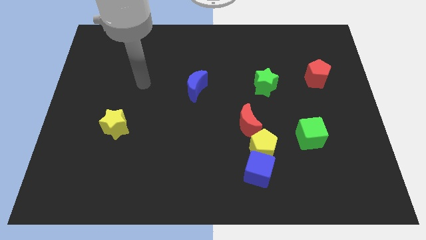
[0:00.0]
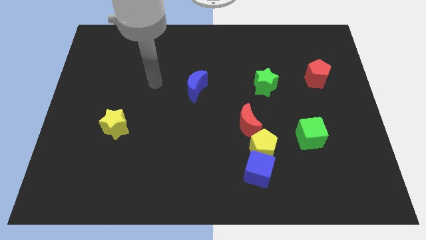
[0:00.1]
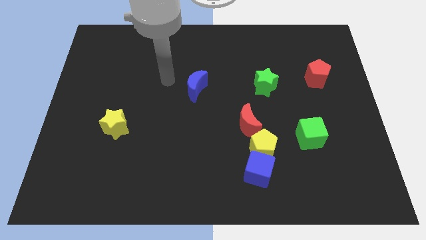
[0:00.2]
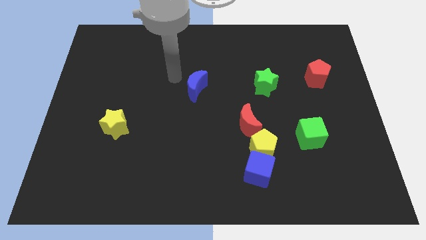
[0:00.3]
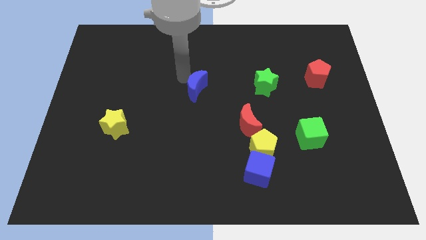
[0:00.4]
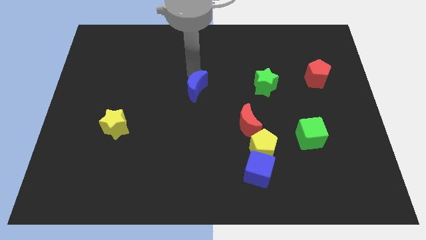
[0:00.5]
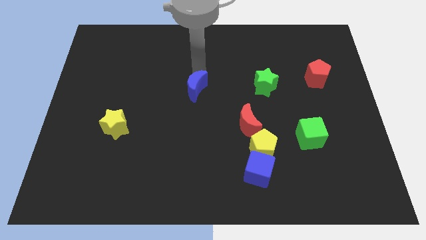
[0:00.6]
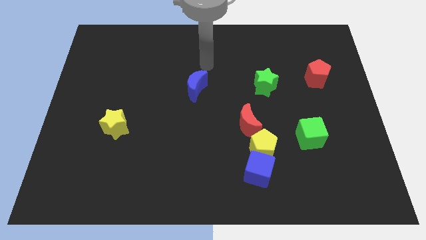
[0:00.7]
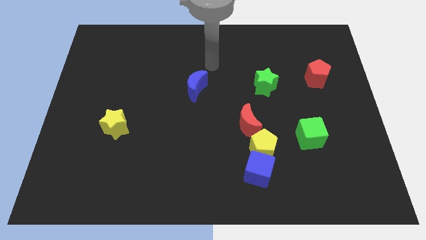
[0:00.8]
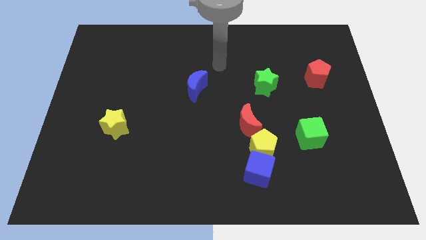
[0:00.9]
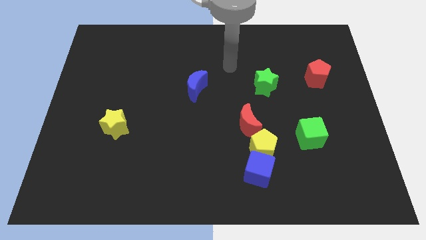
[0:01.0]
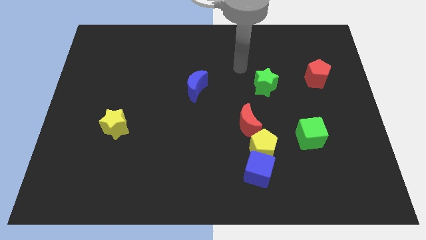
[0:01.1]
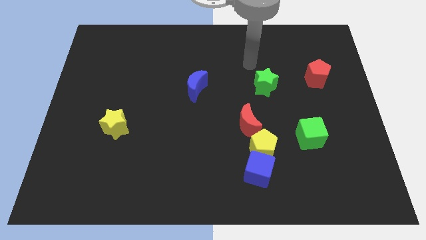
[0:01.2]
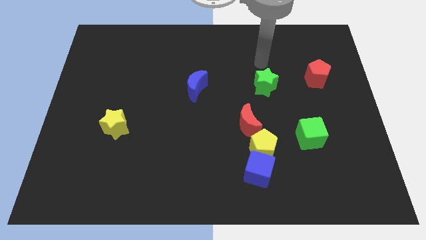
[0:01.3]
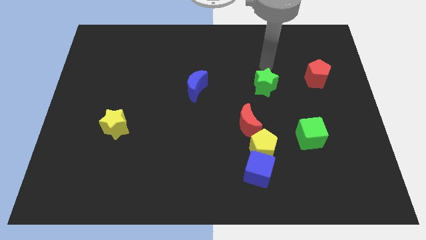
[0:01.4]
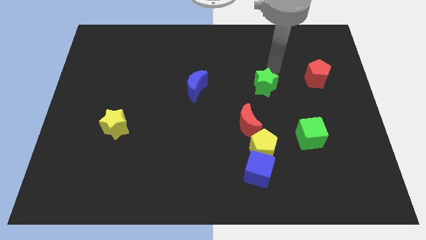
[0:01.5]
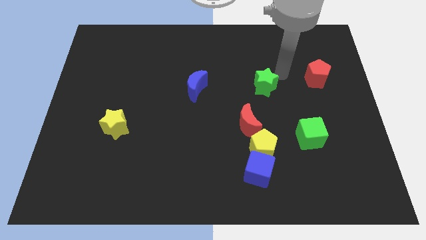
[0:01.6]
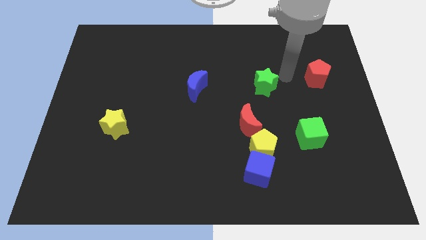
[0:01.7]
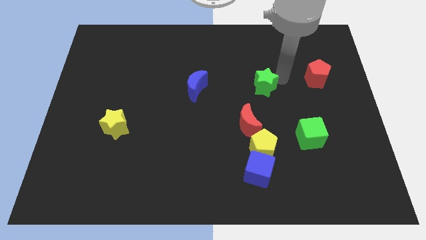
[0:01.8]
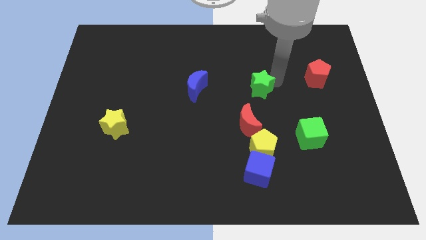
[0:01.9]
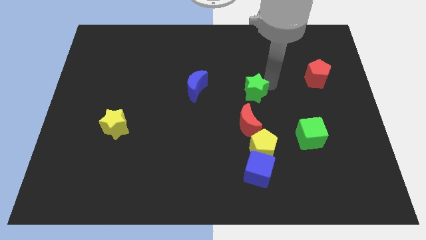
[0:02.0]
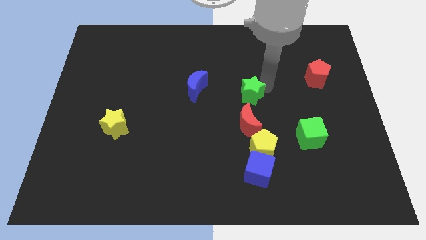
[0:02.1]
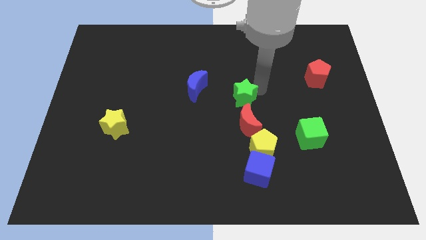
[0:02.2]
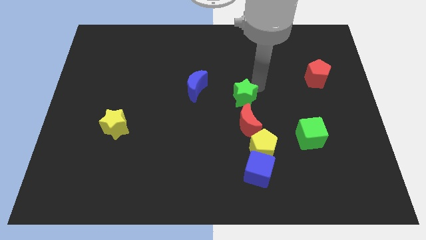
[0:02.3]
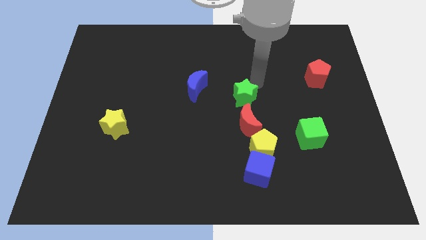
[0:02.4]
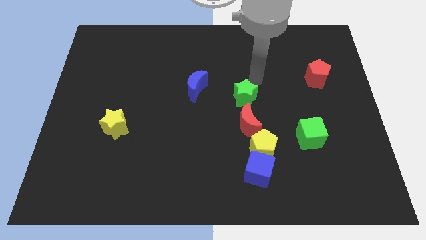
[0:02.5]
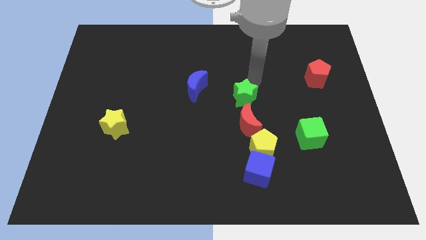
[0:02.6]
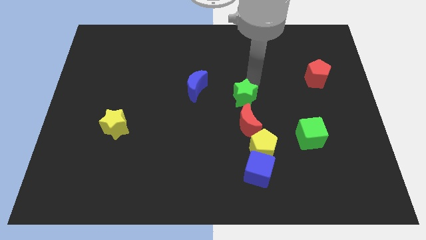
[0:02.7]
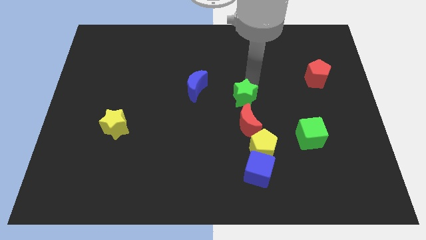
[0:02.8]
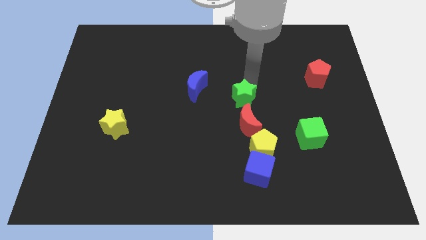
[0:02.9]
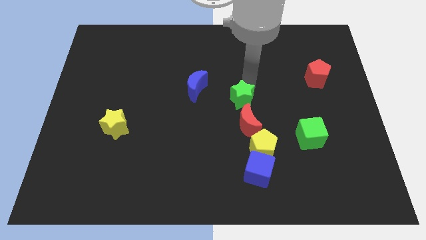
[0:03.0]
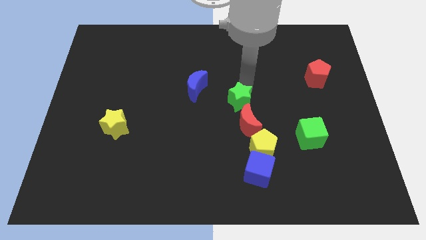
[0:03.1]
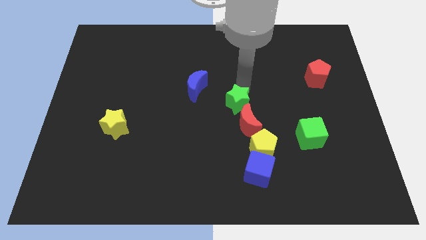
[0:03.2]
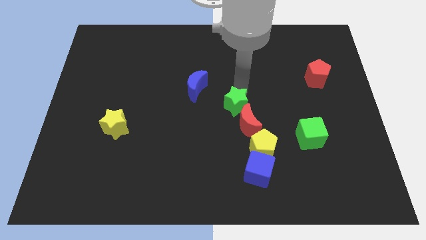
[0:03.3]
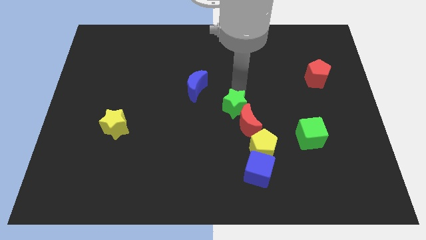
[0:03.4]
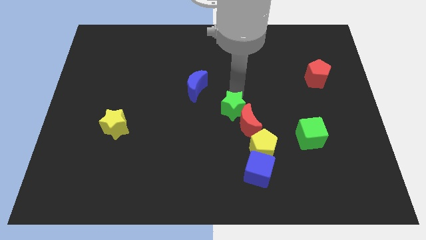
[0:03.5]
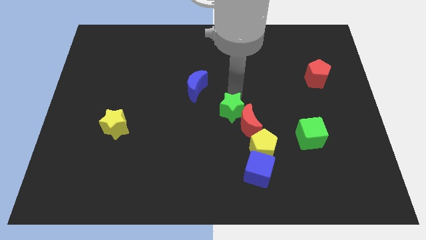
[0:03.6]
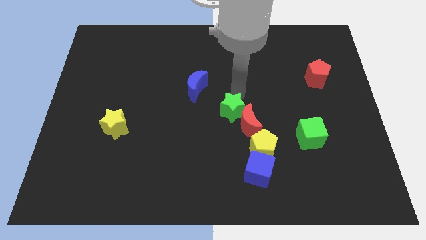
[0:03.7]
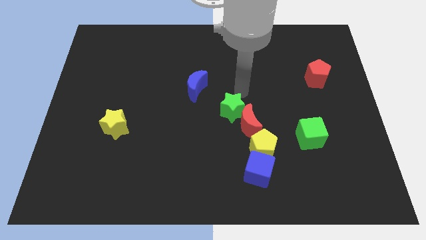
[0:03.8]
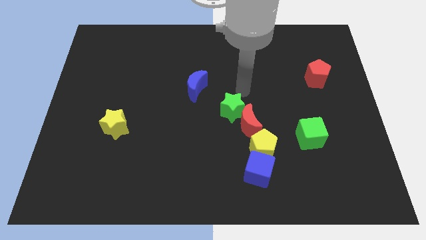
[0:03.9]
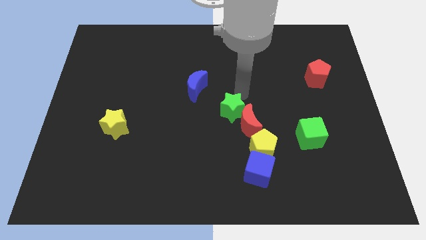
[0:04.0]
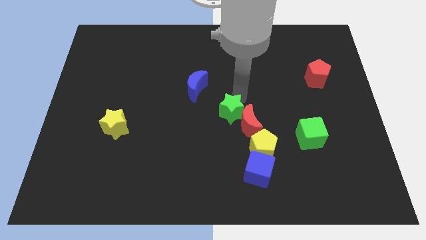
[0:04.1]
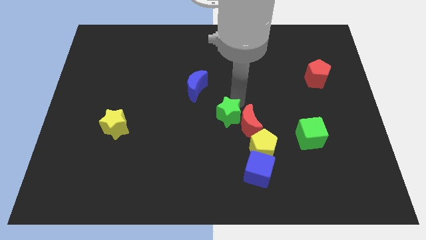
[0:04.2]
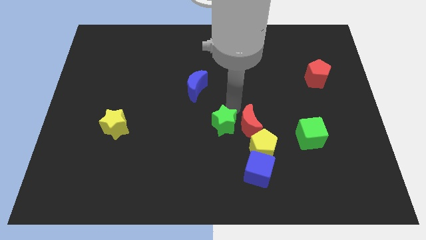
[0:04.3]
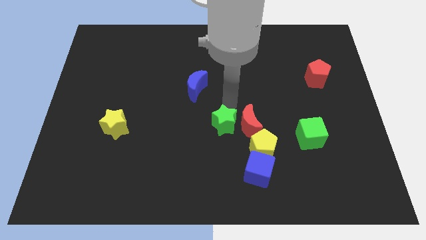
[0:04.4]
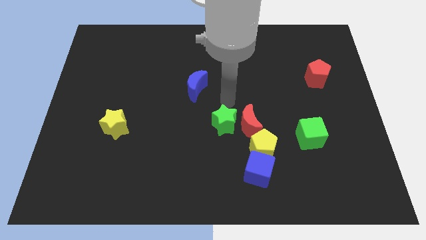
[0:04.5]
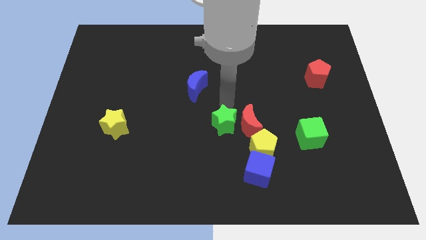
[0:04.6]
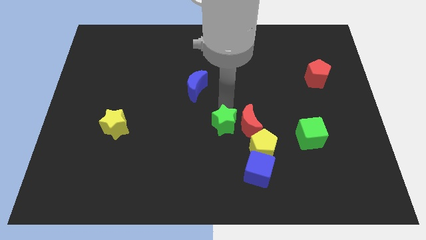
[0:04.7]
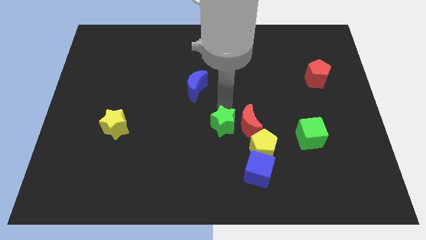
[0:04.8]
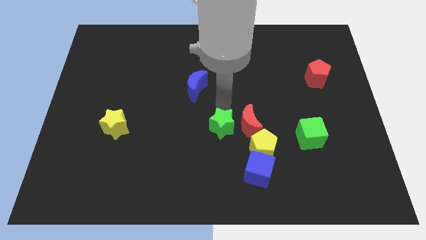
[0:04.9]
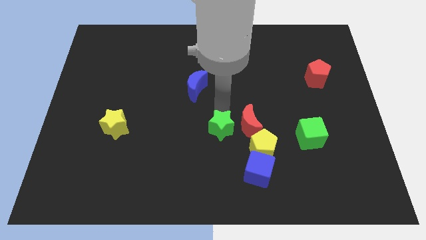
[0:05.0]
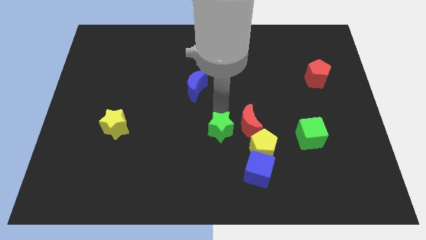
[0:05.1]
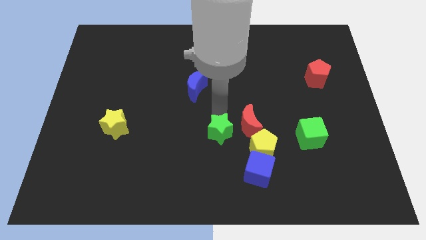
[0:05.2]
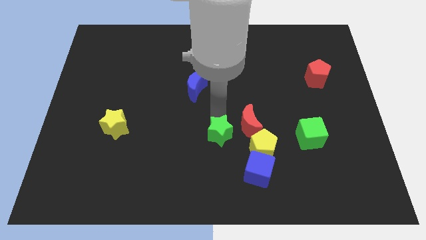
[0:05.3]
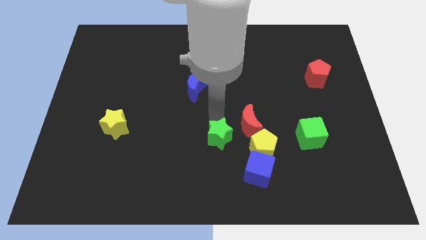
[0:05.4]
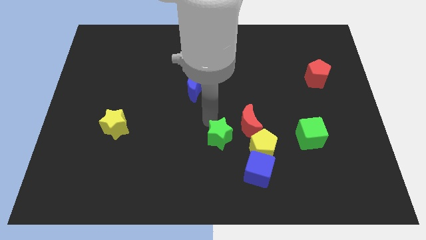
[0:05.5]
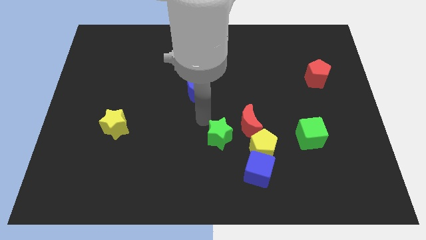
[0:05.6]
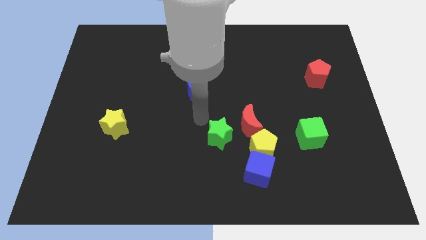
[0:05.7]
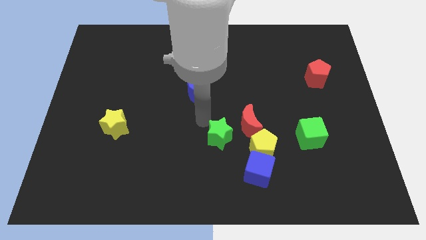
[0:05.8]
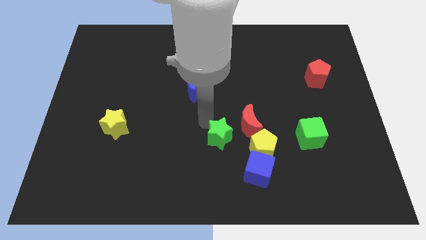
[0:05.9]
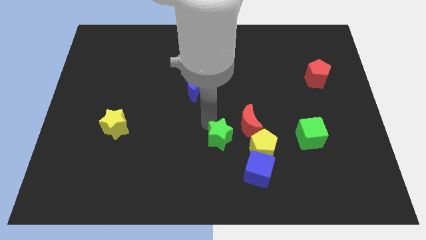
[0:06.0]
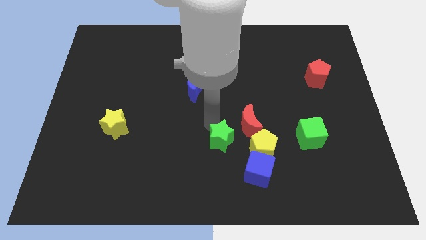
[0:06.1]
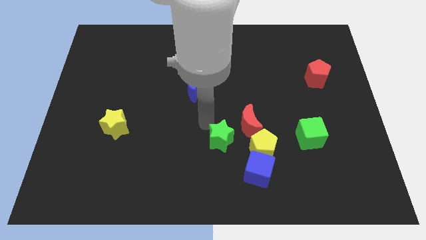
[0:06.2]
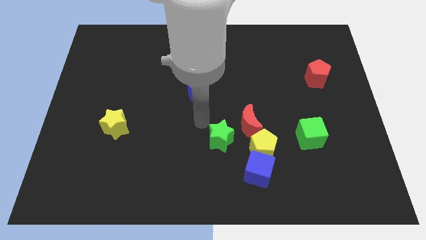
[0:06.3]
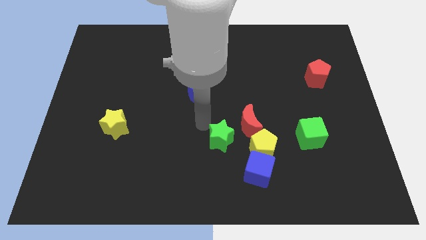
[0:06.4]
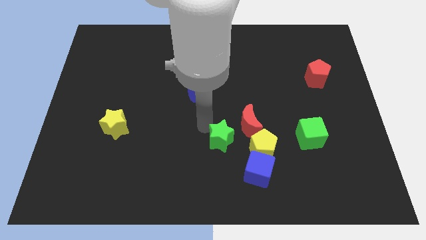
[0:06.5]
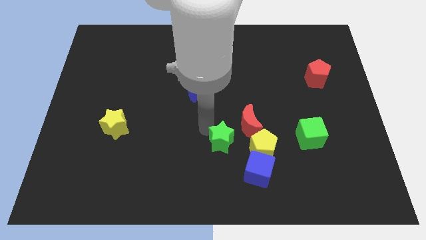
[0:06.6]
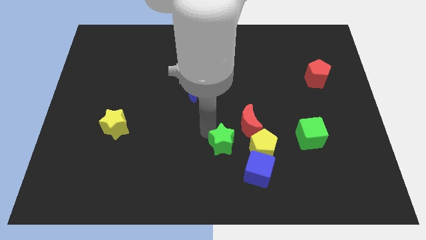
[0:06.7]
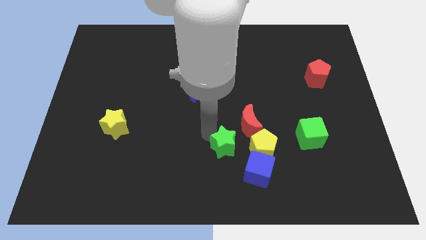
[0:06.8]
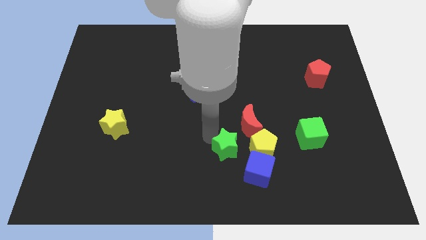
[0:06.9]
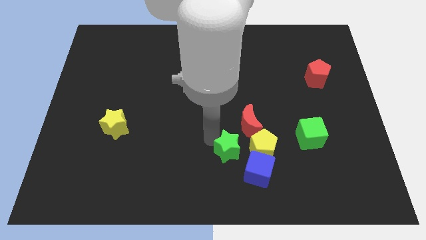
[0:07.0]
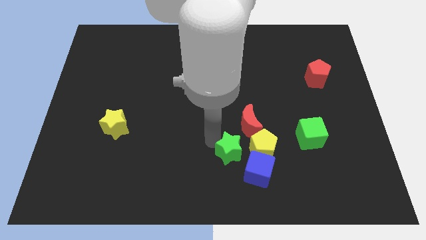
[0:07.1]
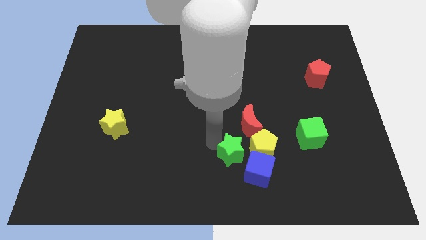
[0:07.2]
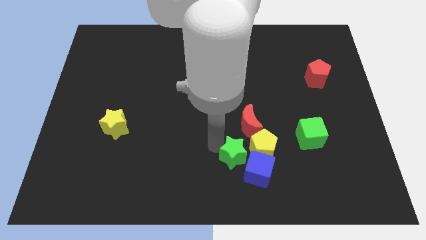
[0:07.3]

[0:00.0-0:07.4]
push the green star to the blue cube
